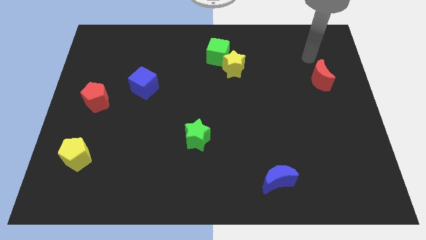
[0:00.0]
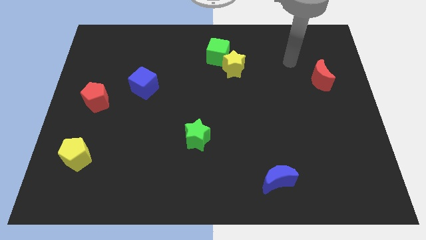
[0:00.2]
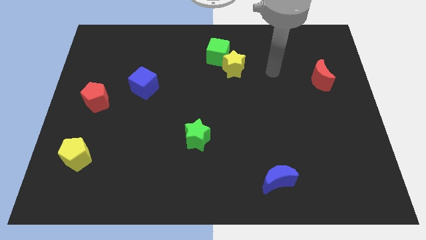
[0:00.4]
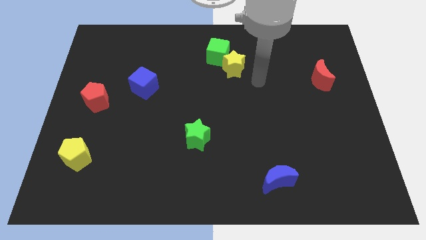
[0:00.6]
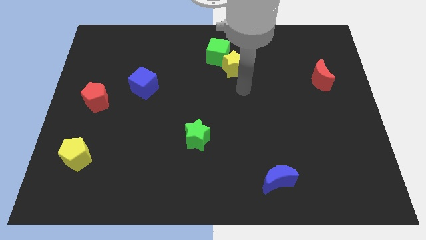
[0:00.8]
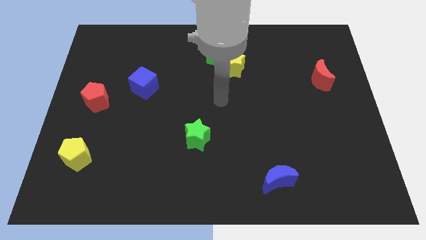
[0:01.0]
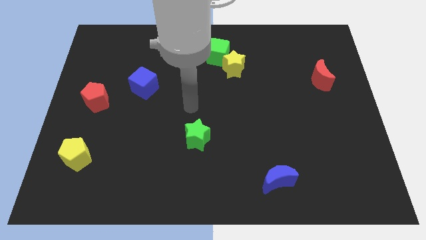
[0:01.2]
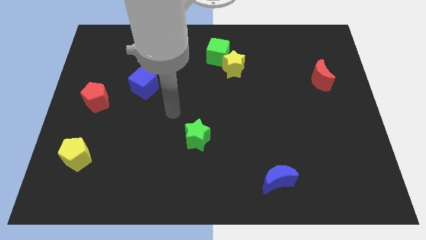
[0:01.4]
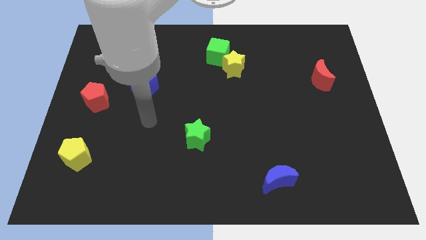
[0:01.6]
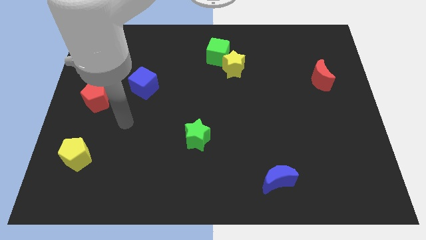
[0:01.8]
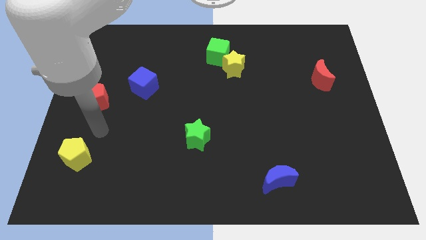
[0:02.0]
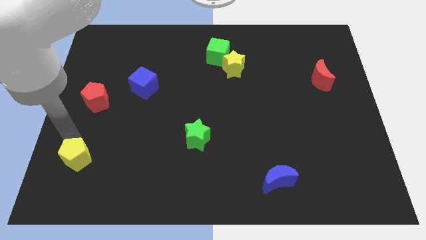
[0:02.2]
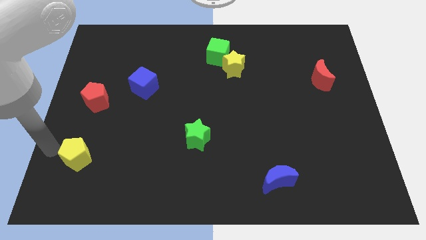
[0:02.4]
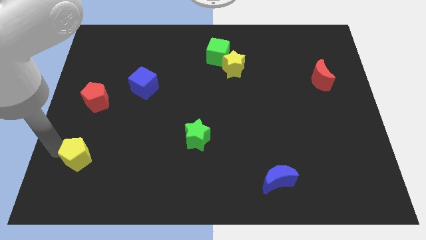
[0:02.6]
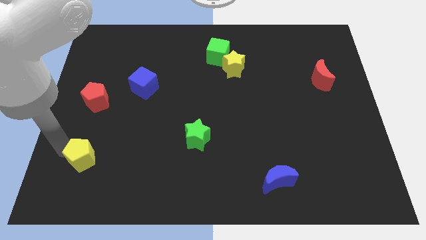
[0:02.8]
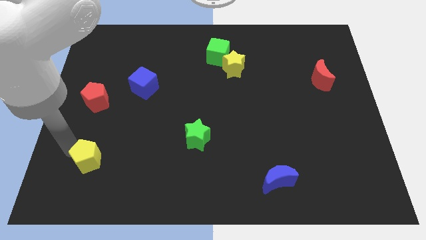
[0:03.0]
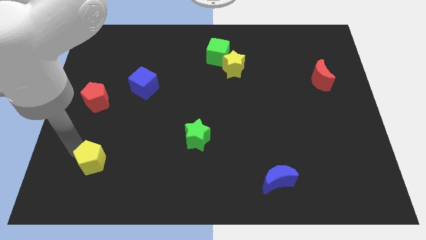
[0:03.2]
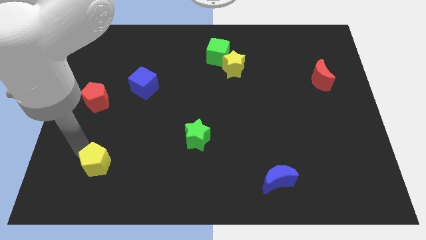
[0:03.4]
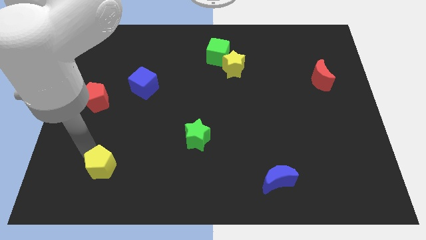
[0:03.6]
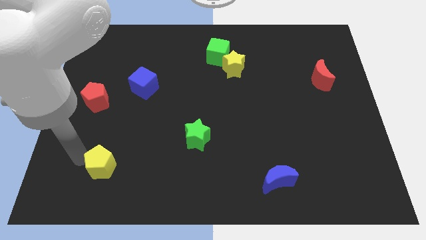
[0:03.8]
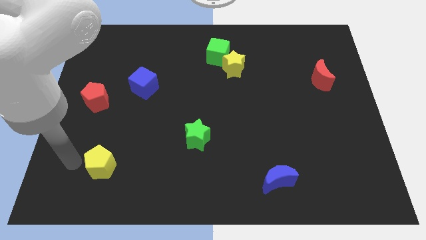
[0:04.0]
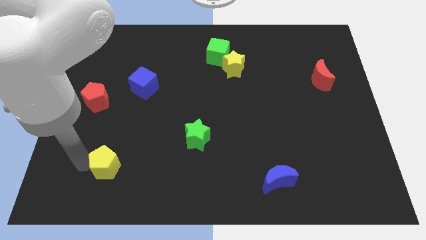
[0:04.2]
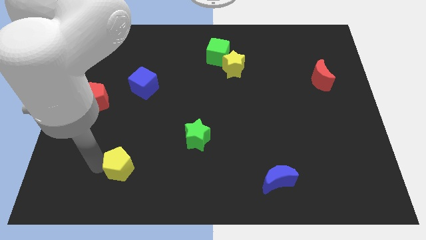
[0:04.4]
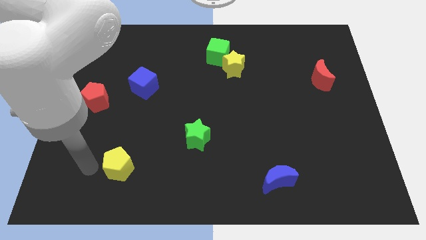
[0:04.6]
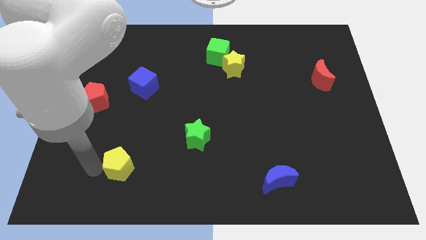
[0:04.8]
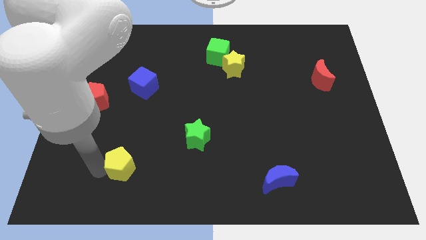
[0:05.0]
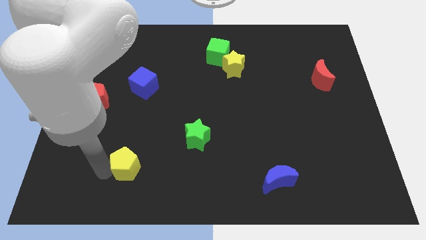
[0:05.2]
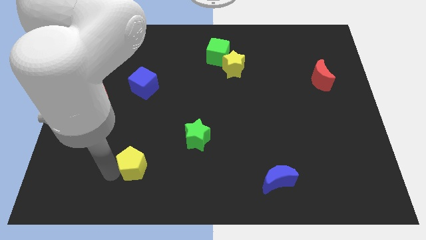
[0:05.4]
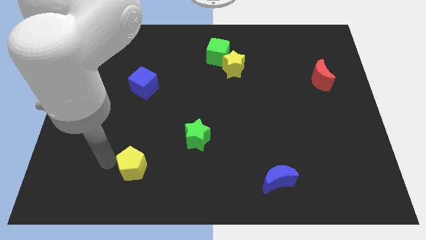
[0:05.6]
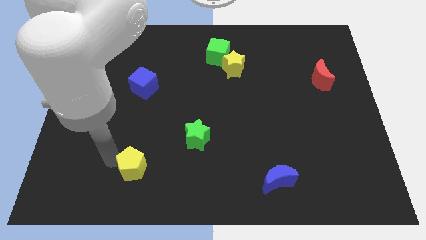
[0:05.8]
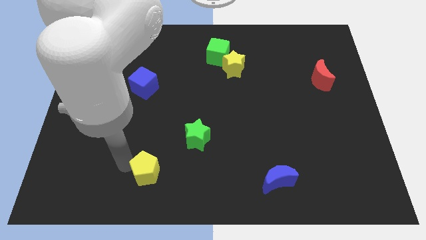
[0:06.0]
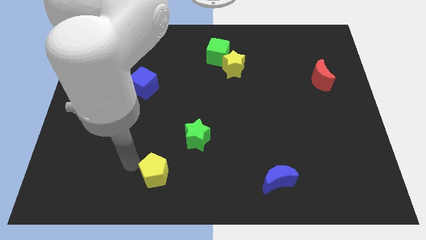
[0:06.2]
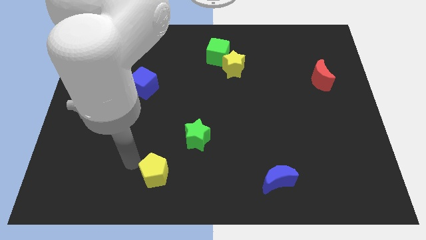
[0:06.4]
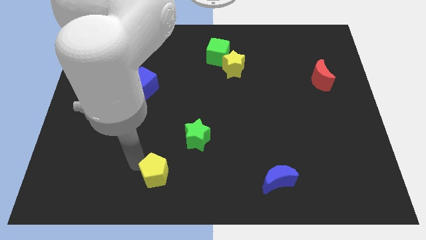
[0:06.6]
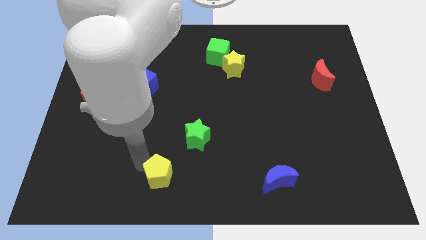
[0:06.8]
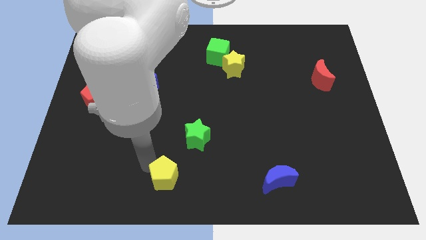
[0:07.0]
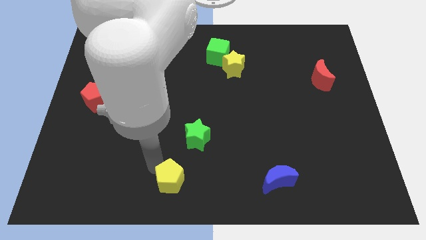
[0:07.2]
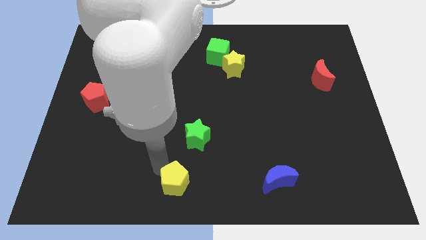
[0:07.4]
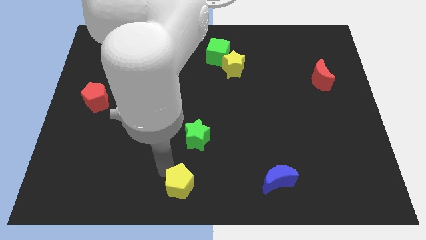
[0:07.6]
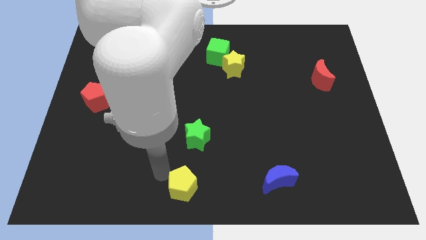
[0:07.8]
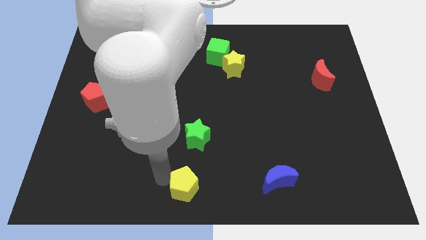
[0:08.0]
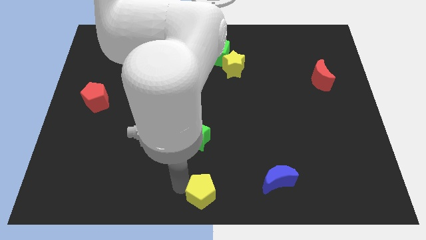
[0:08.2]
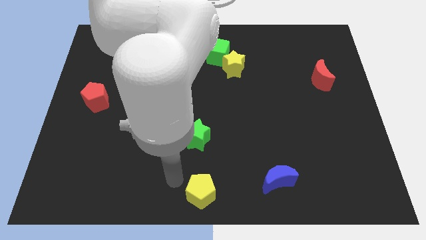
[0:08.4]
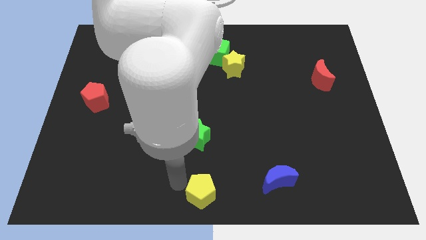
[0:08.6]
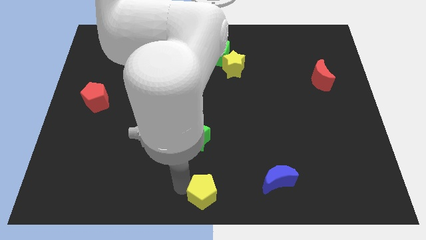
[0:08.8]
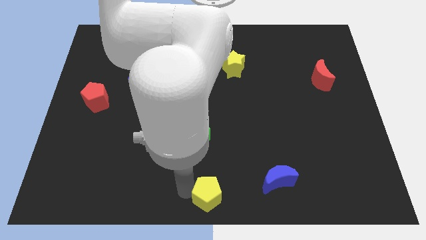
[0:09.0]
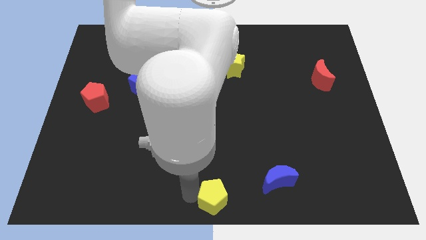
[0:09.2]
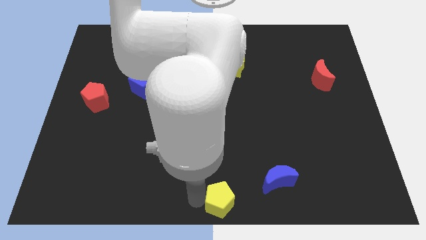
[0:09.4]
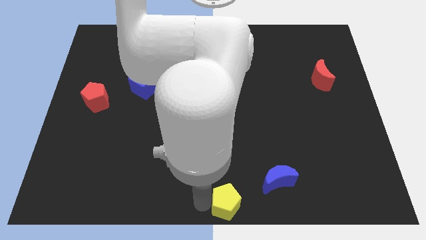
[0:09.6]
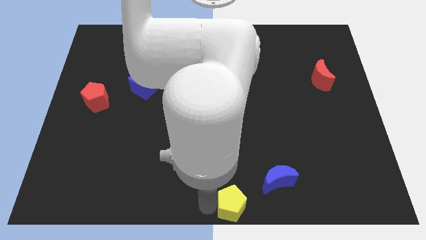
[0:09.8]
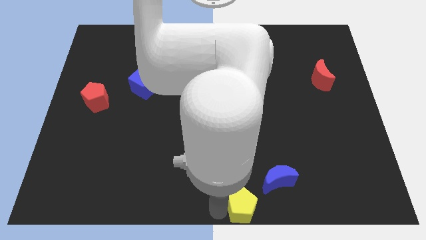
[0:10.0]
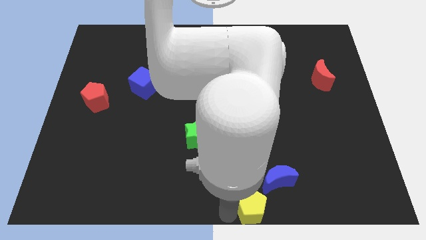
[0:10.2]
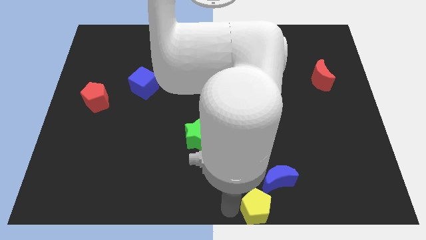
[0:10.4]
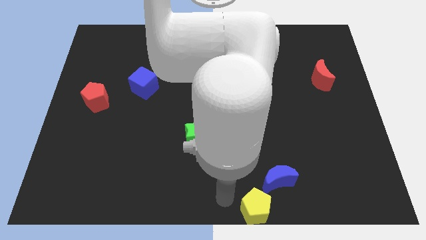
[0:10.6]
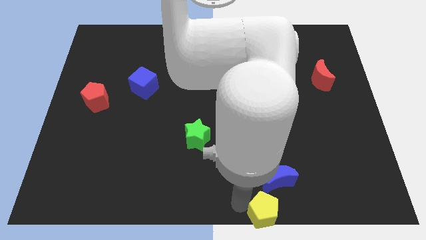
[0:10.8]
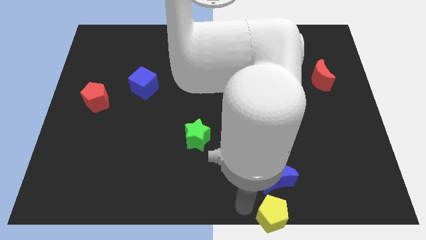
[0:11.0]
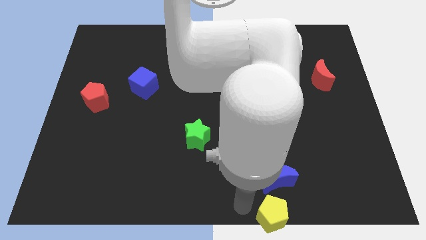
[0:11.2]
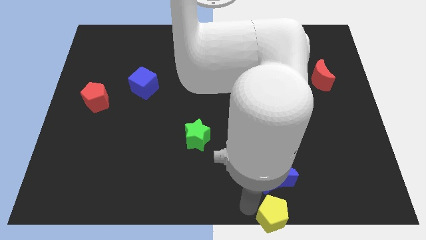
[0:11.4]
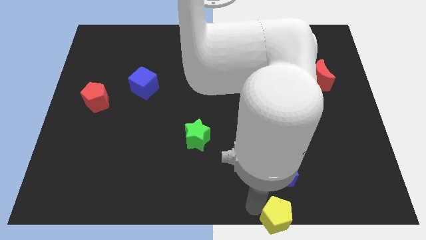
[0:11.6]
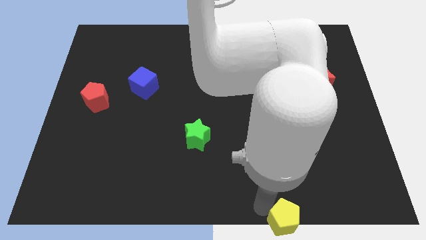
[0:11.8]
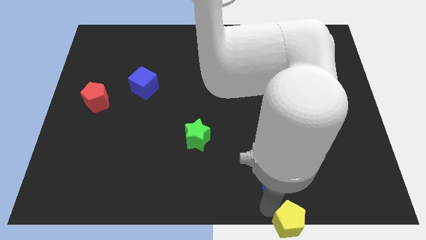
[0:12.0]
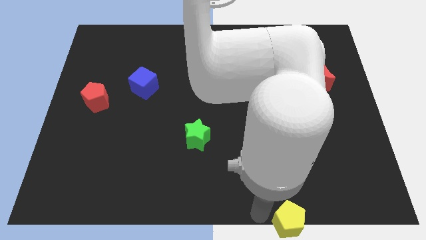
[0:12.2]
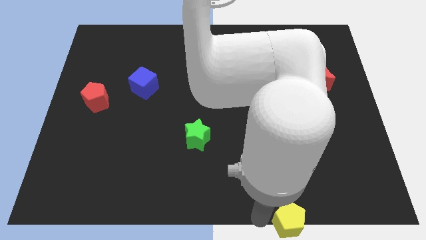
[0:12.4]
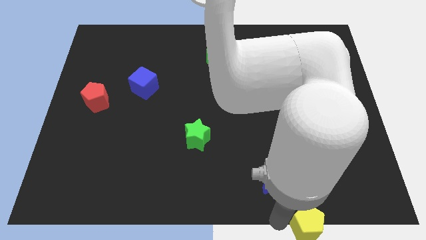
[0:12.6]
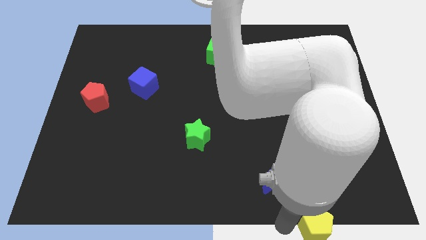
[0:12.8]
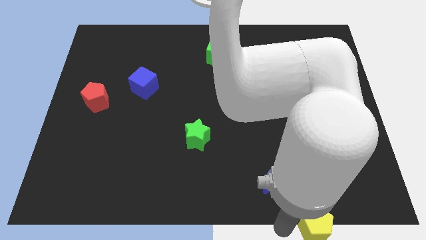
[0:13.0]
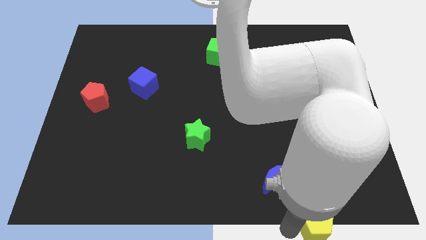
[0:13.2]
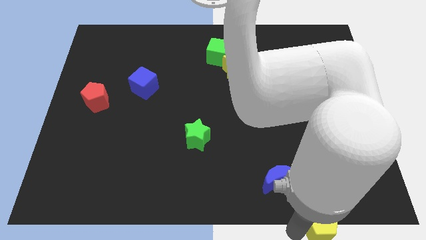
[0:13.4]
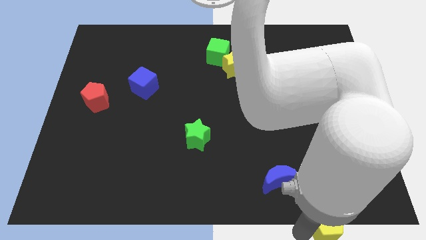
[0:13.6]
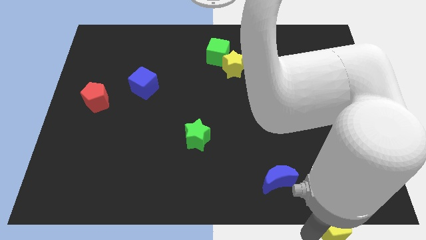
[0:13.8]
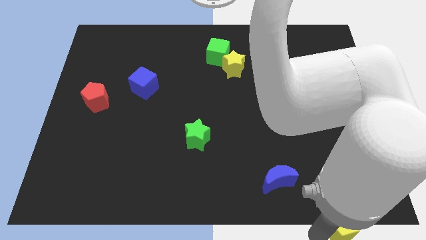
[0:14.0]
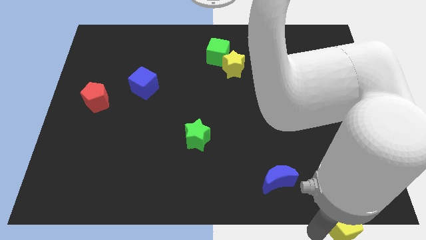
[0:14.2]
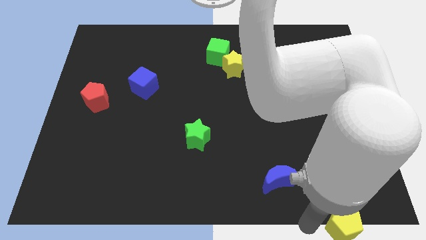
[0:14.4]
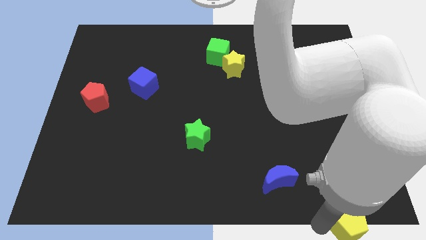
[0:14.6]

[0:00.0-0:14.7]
push the yellow pentagon to the lower right corner
